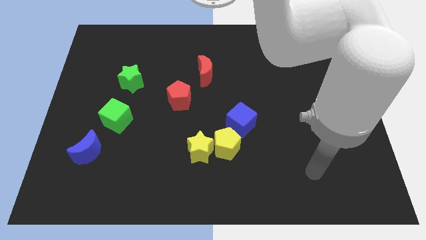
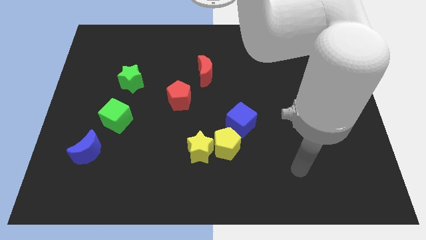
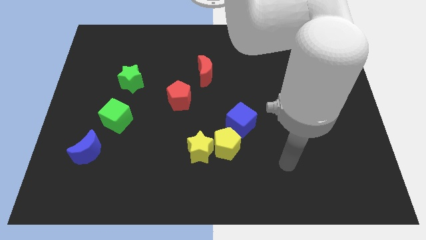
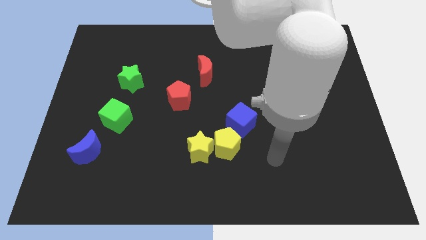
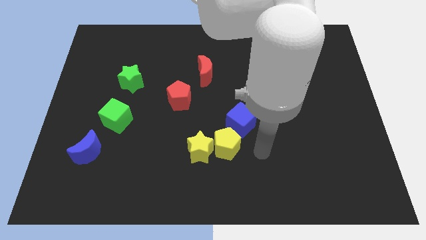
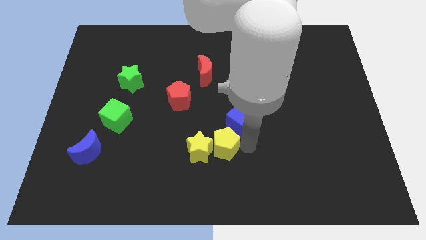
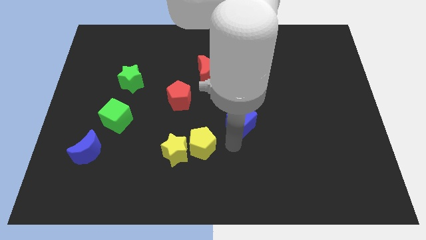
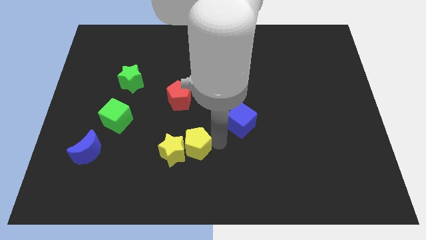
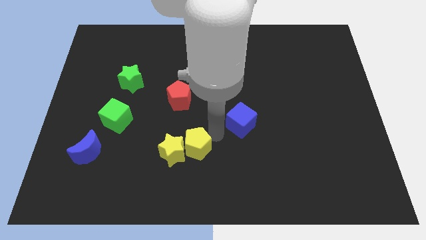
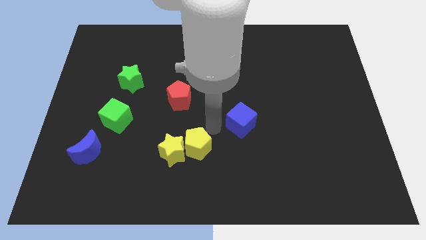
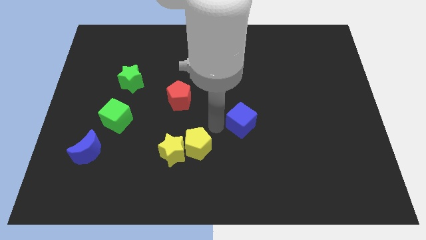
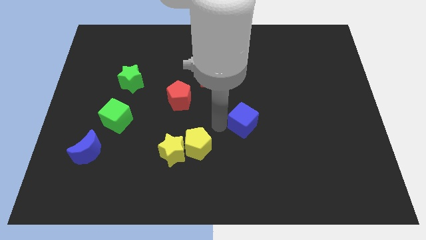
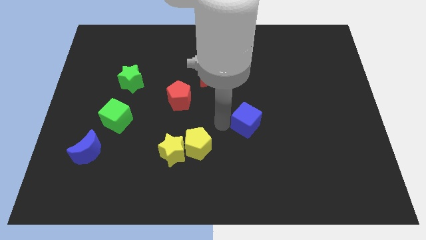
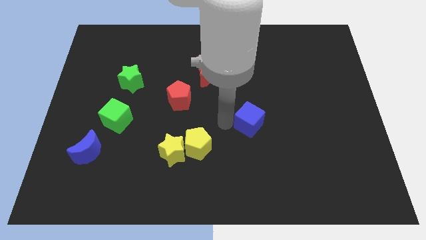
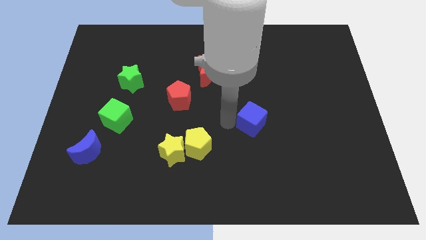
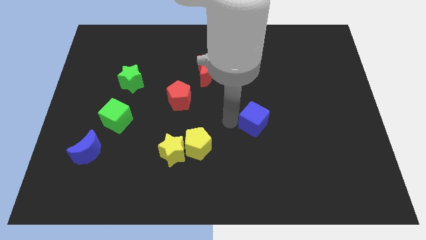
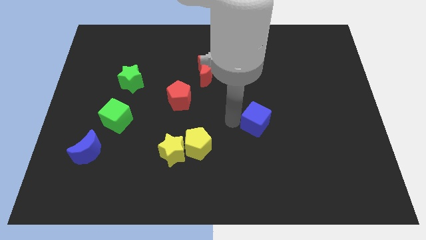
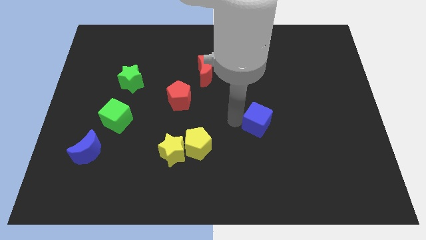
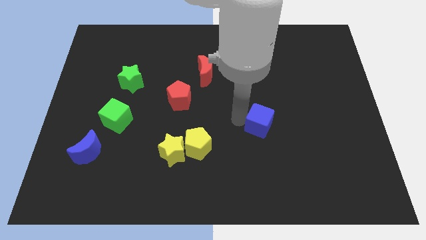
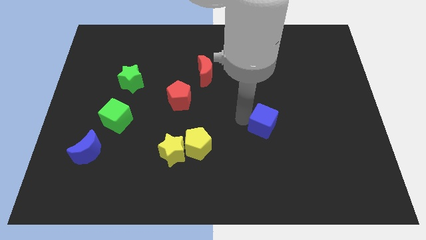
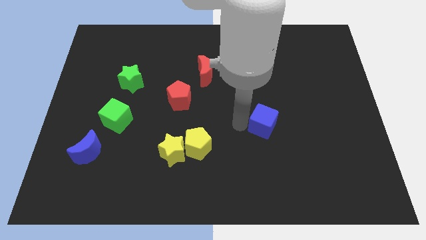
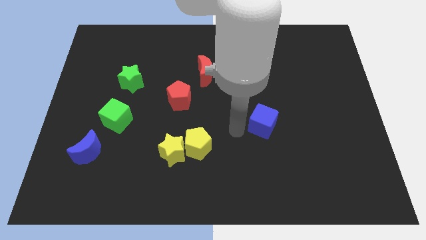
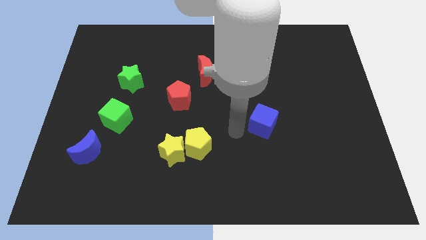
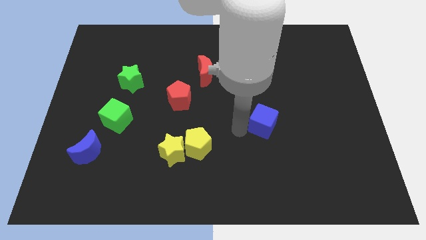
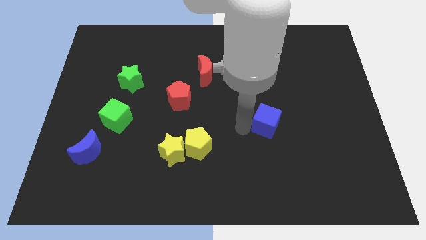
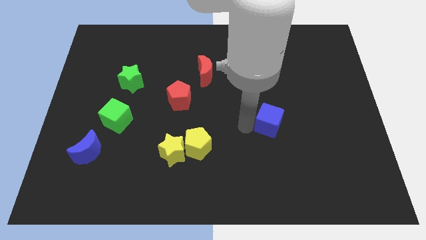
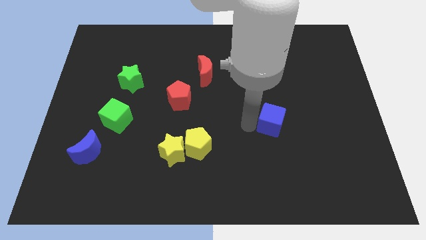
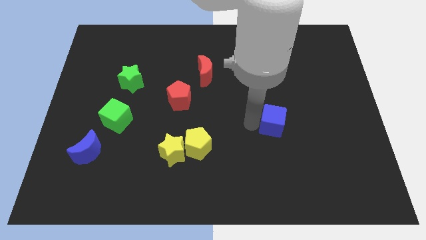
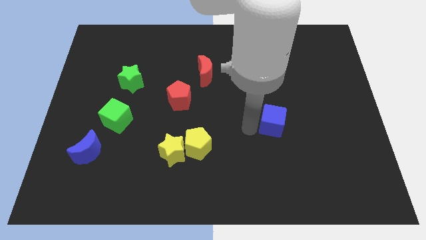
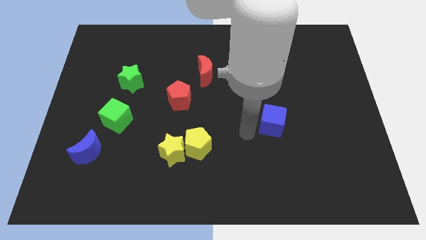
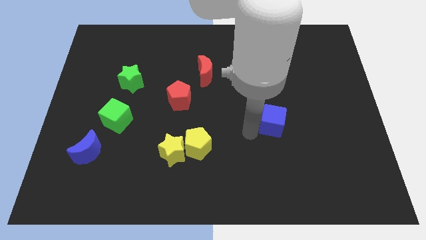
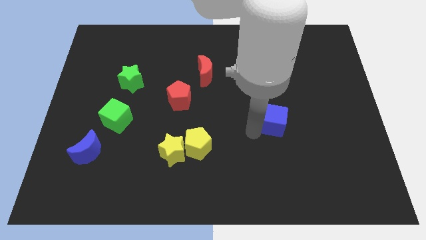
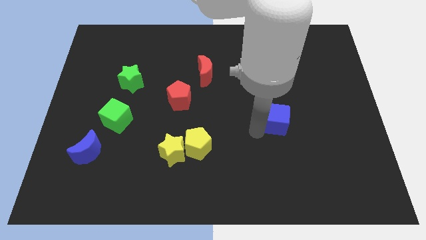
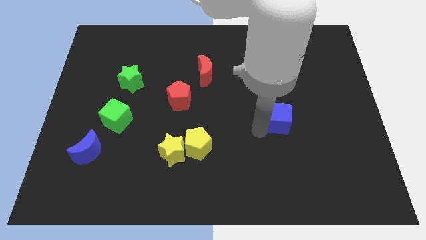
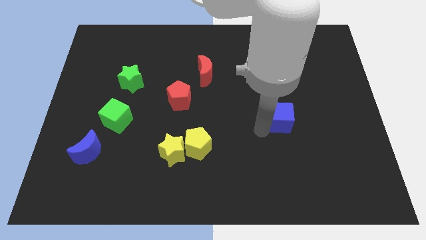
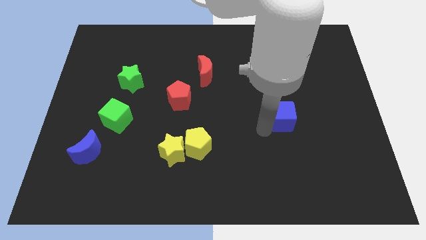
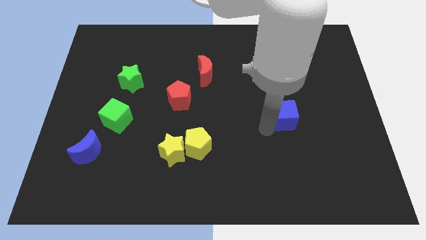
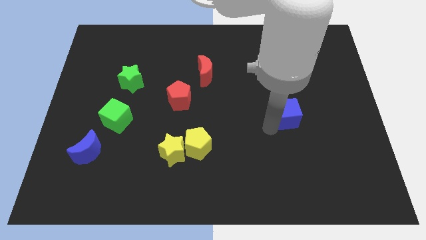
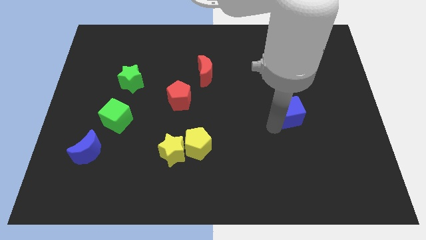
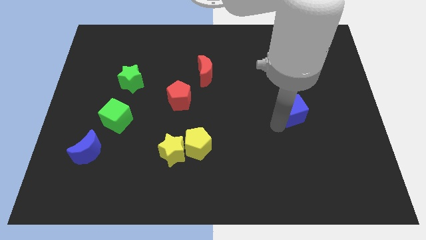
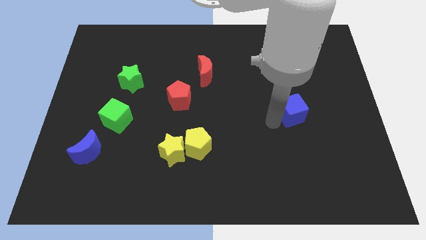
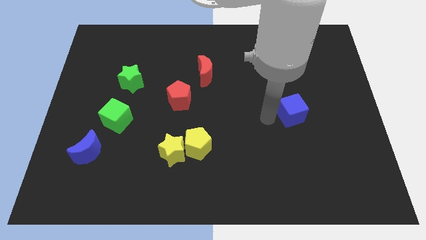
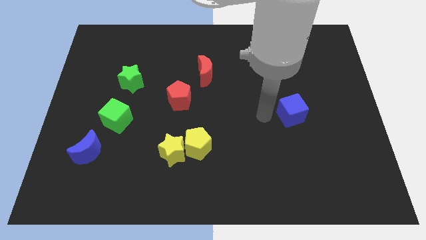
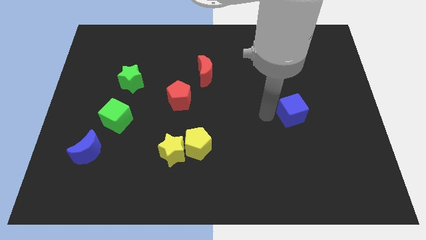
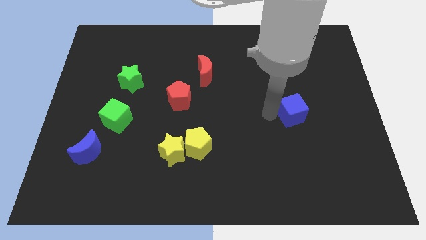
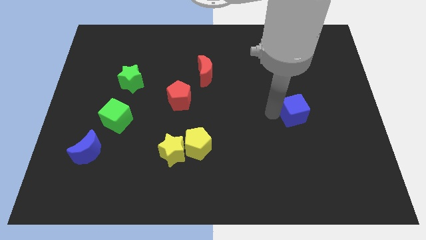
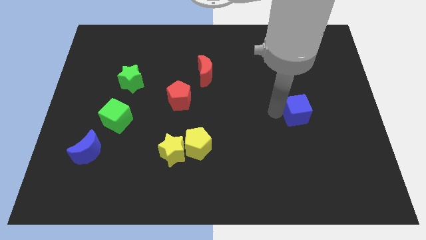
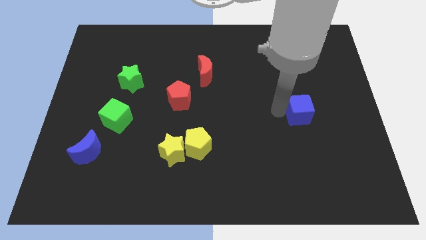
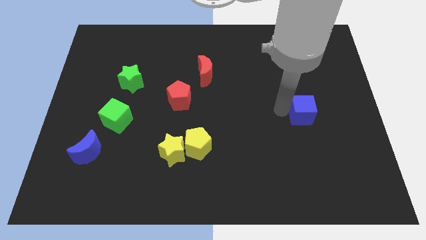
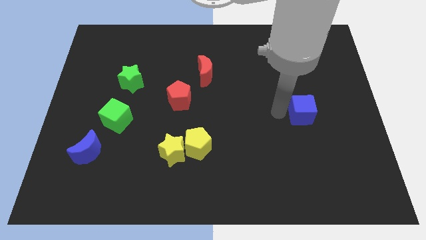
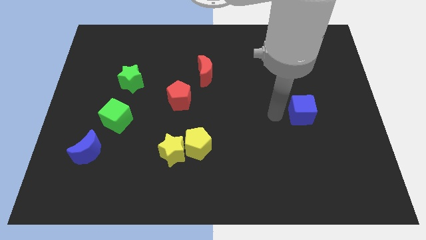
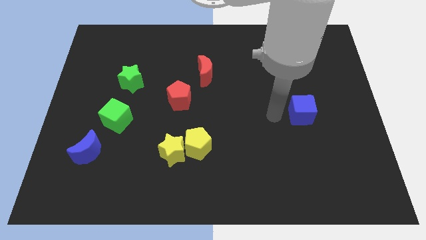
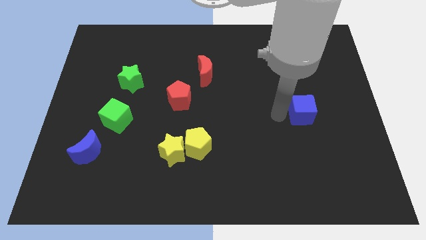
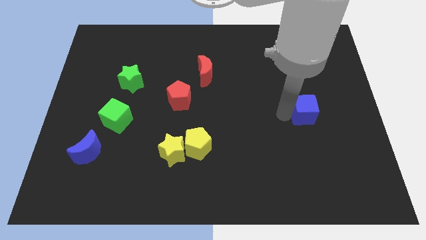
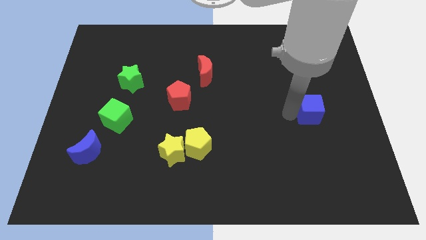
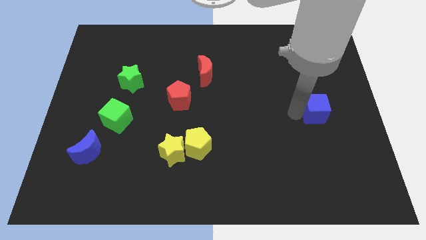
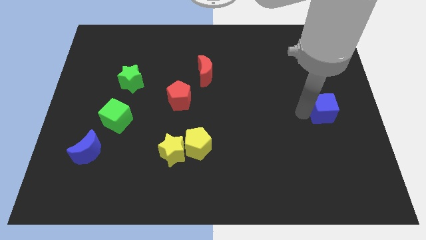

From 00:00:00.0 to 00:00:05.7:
move the blue cube to the right side
